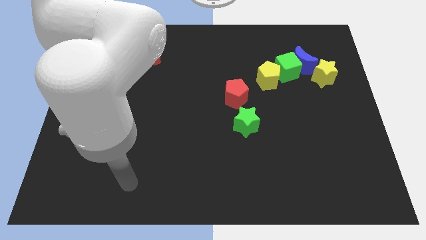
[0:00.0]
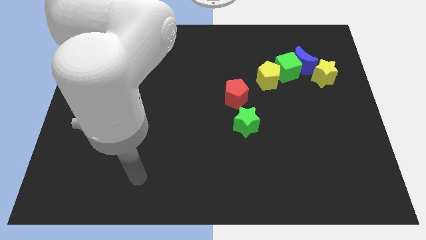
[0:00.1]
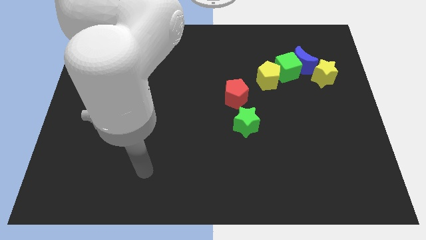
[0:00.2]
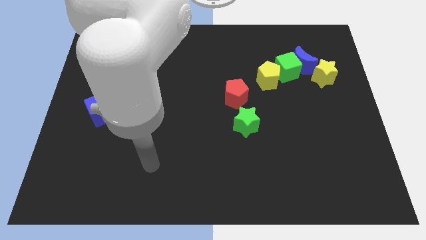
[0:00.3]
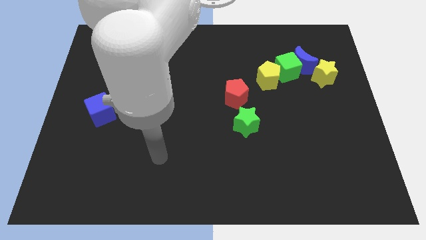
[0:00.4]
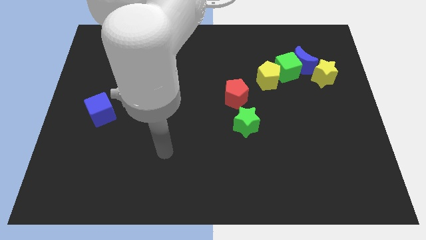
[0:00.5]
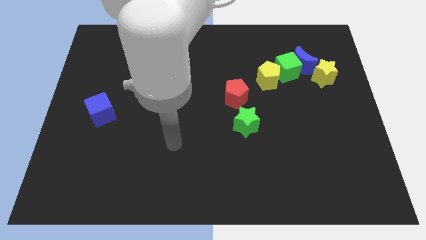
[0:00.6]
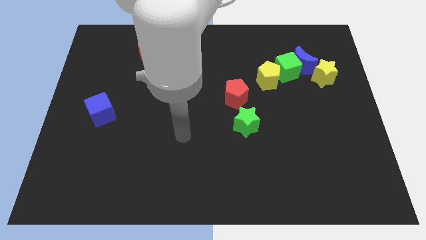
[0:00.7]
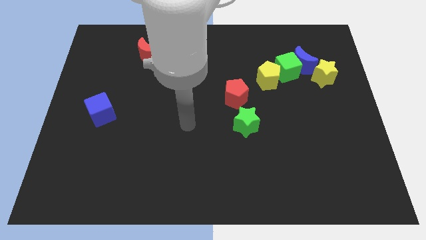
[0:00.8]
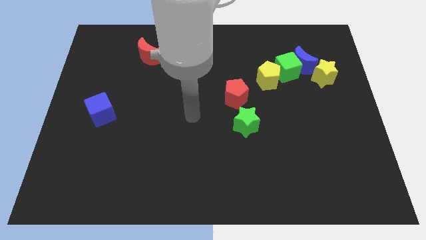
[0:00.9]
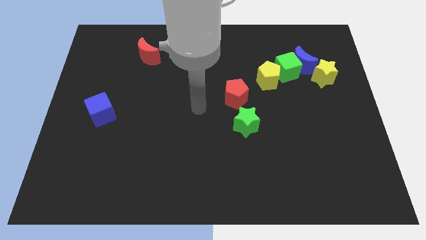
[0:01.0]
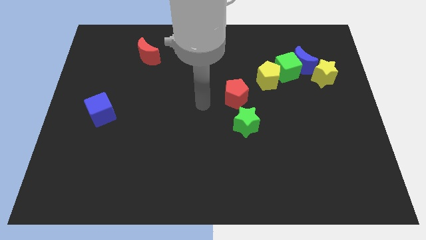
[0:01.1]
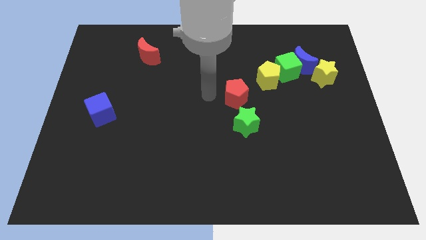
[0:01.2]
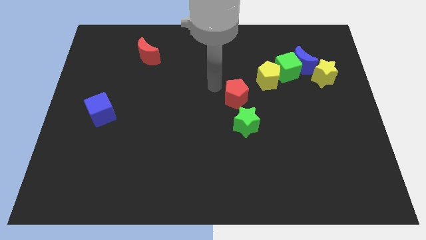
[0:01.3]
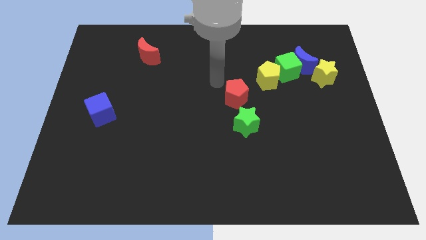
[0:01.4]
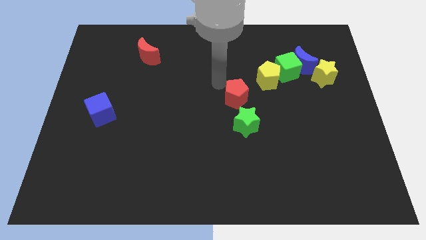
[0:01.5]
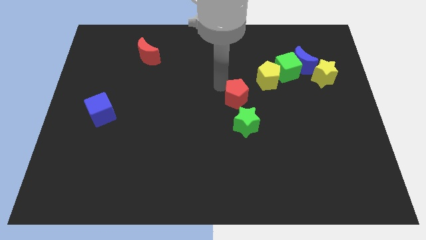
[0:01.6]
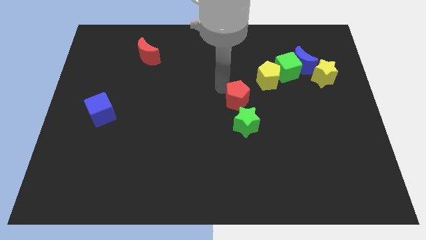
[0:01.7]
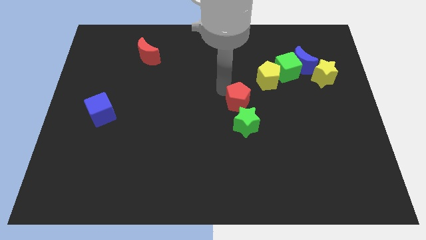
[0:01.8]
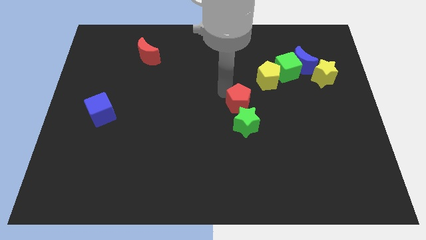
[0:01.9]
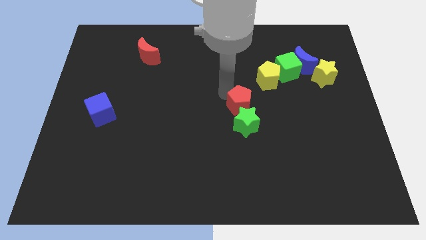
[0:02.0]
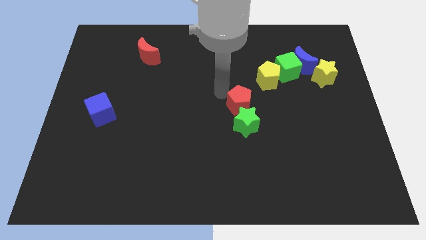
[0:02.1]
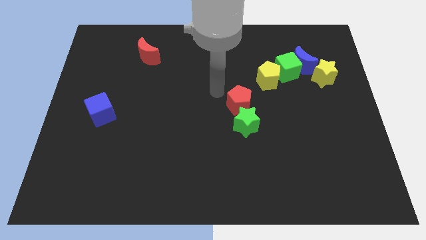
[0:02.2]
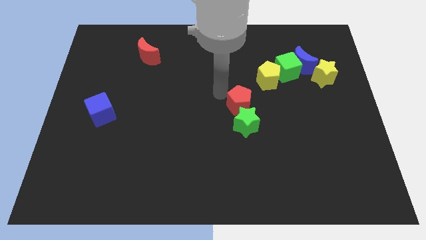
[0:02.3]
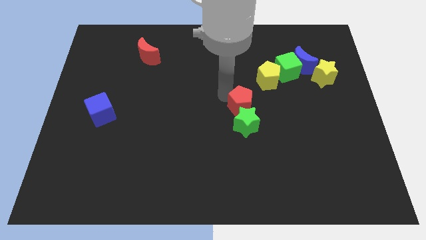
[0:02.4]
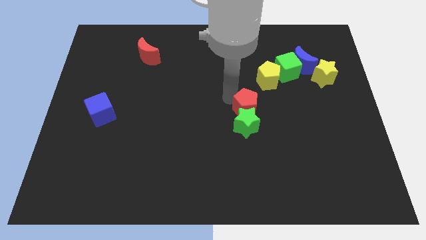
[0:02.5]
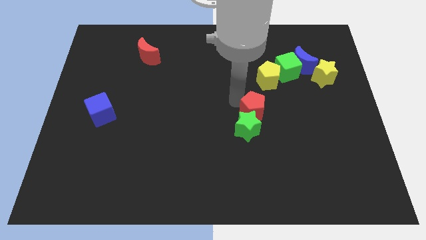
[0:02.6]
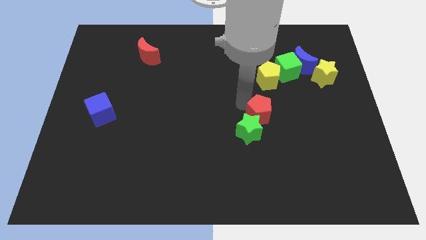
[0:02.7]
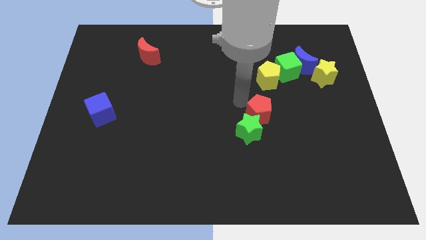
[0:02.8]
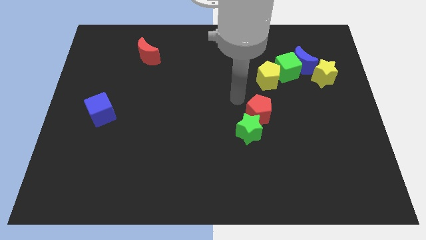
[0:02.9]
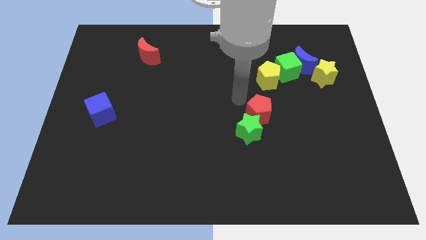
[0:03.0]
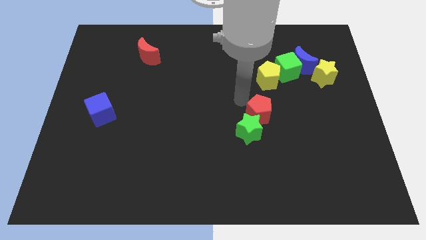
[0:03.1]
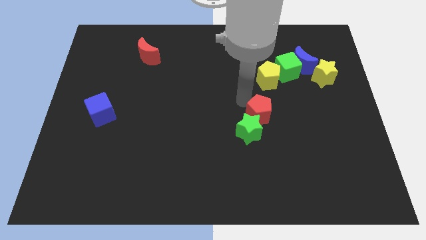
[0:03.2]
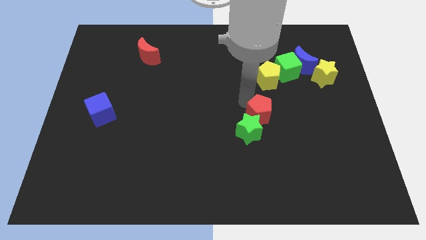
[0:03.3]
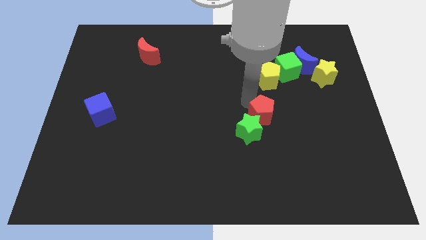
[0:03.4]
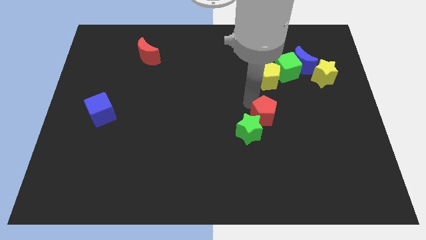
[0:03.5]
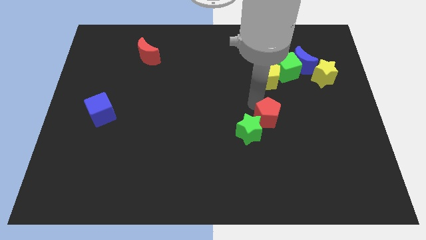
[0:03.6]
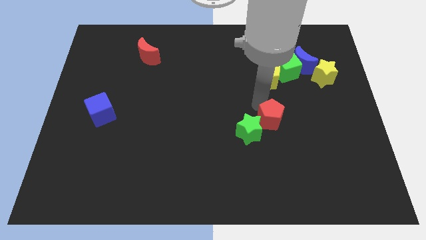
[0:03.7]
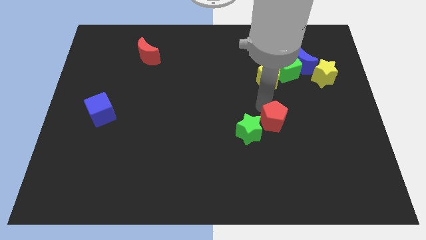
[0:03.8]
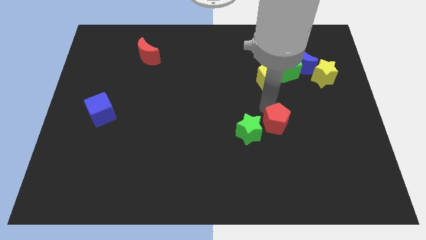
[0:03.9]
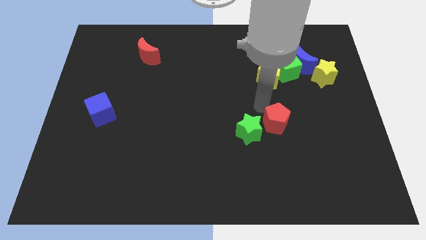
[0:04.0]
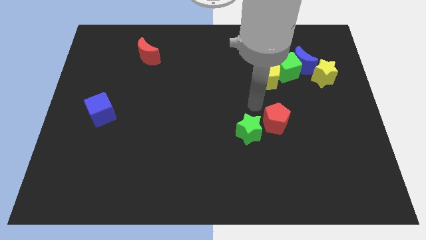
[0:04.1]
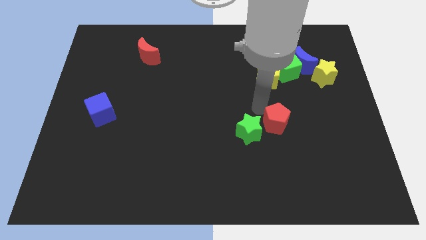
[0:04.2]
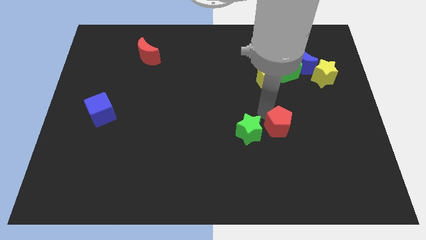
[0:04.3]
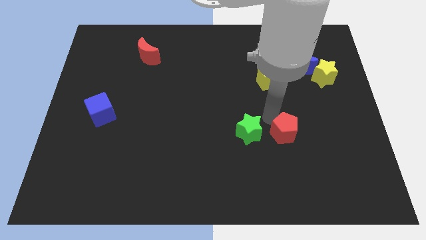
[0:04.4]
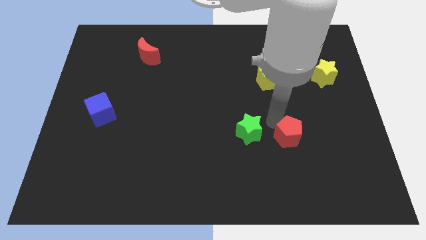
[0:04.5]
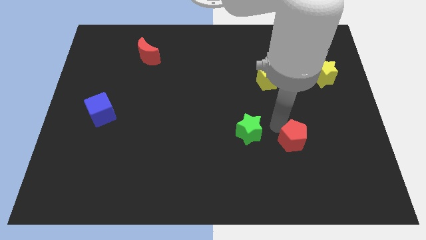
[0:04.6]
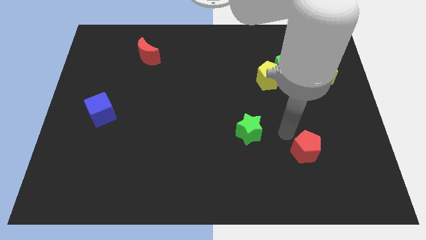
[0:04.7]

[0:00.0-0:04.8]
push the red pentagon downwards and right diagonally

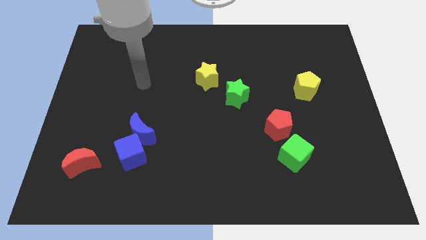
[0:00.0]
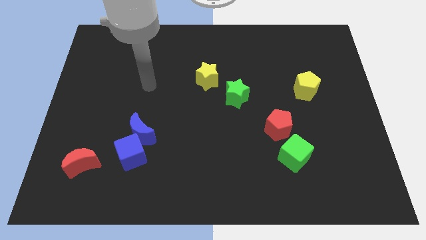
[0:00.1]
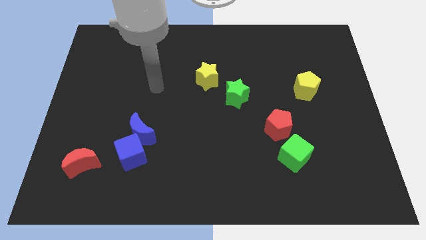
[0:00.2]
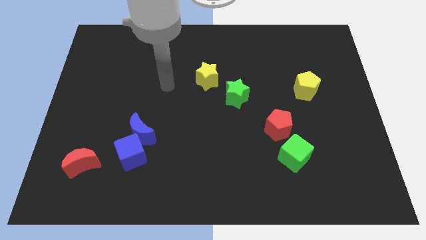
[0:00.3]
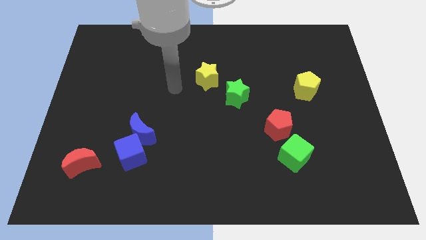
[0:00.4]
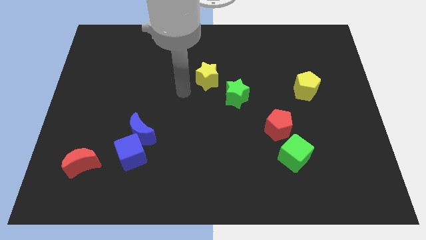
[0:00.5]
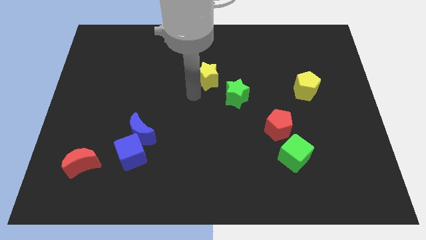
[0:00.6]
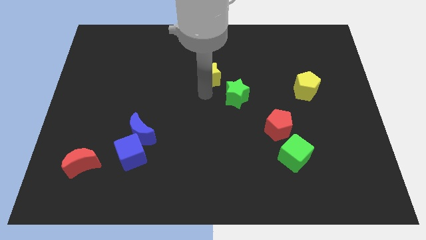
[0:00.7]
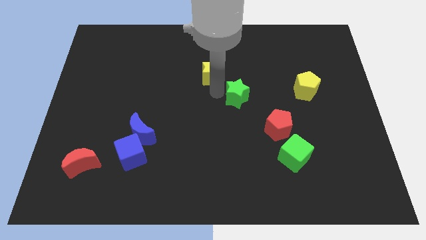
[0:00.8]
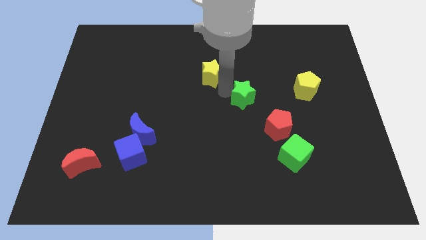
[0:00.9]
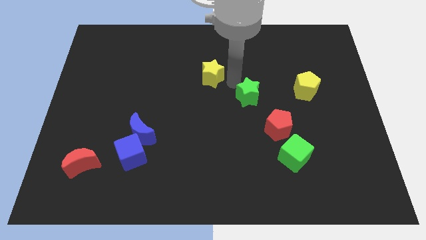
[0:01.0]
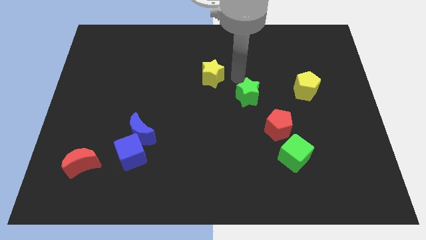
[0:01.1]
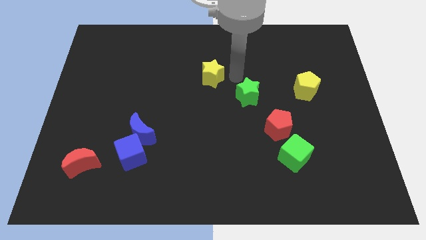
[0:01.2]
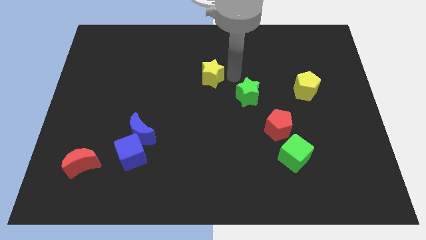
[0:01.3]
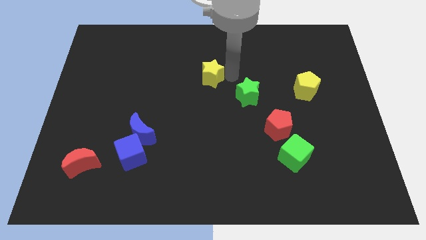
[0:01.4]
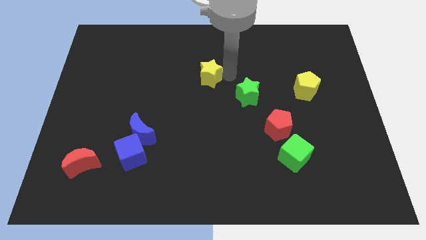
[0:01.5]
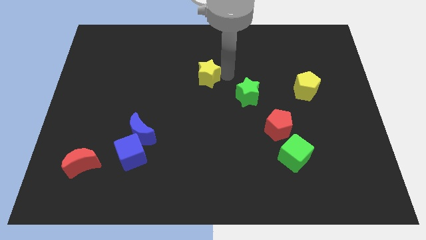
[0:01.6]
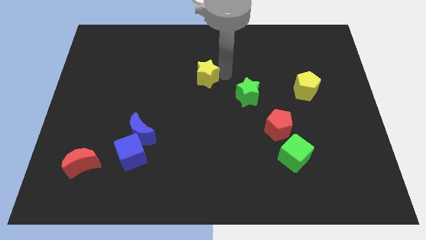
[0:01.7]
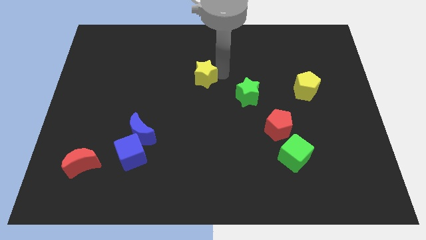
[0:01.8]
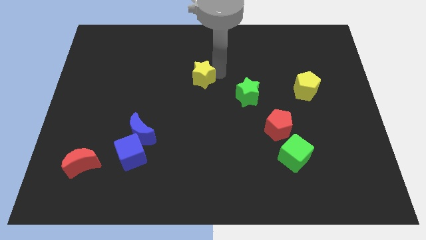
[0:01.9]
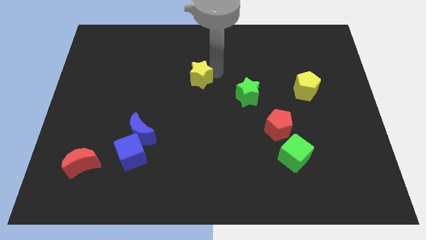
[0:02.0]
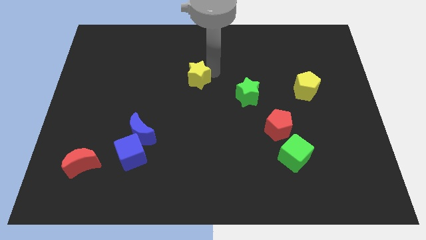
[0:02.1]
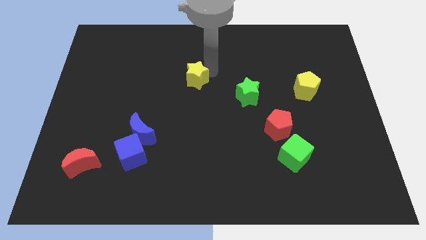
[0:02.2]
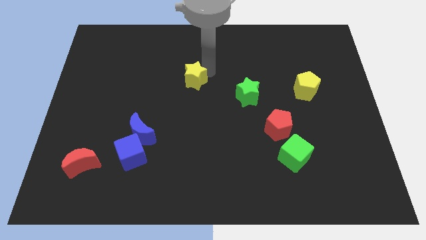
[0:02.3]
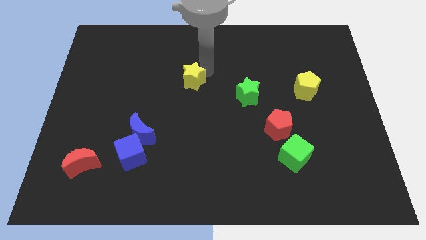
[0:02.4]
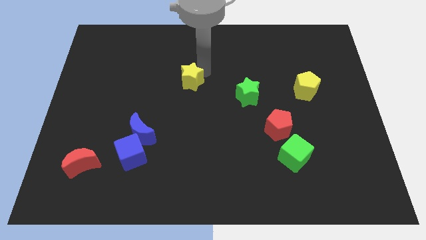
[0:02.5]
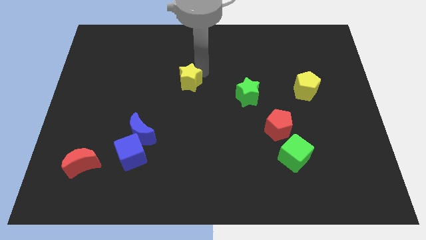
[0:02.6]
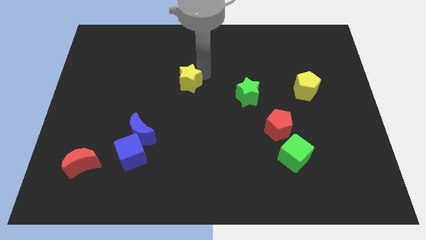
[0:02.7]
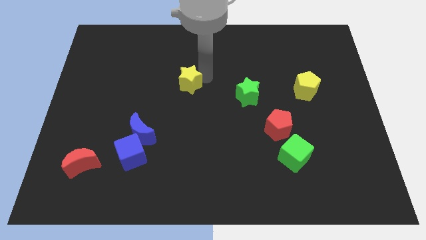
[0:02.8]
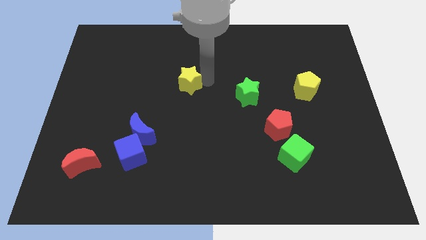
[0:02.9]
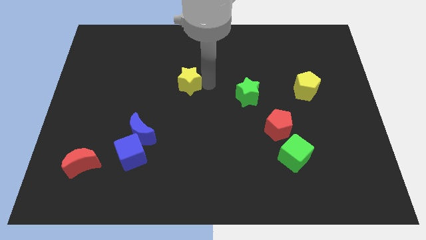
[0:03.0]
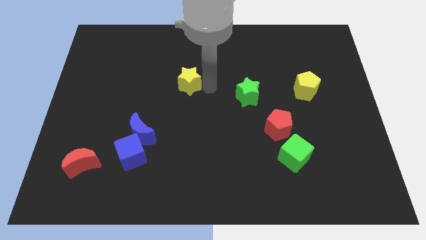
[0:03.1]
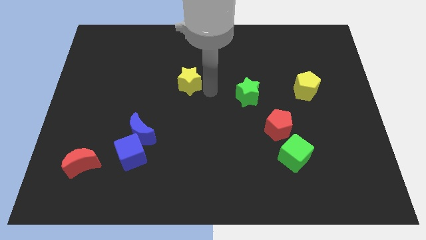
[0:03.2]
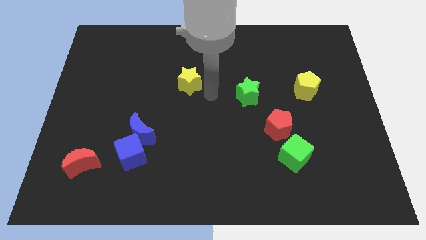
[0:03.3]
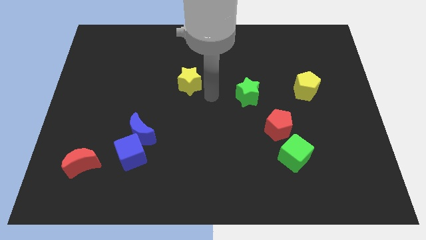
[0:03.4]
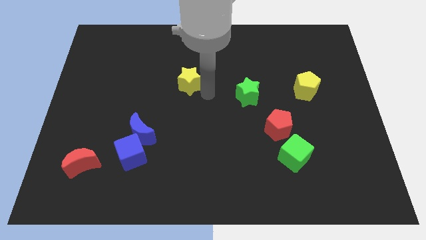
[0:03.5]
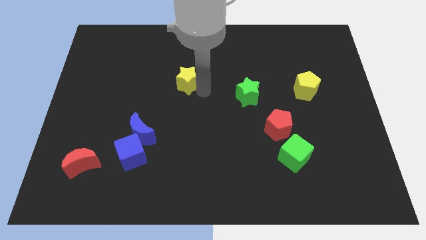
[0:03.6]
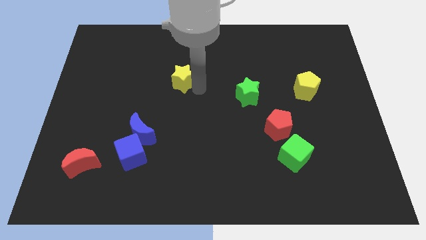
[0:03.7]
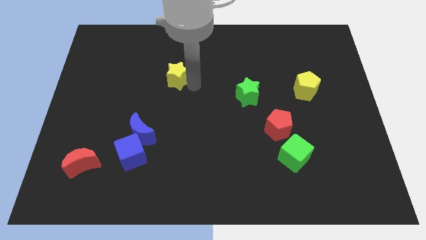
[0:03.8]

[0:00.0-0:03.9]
slightly push the yellow star to the left
